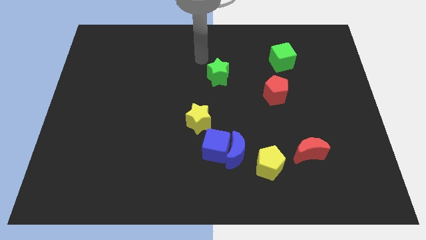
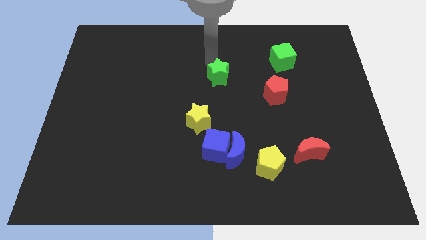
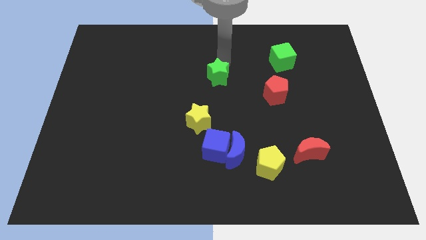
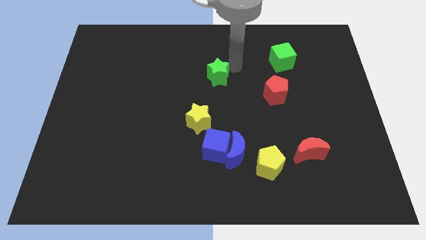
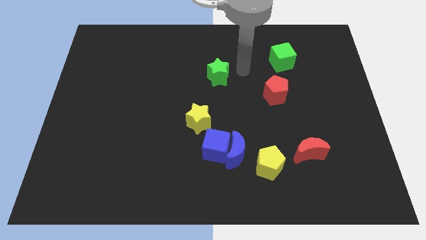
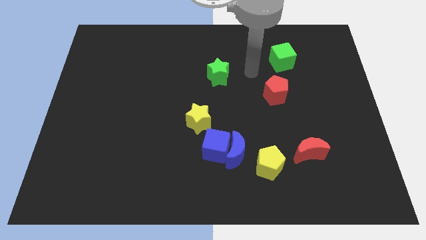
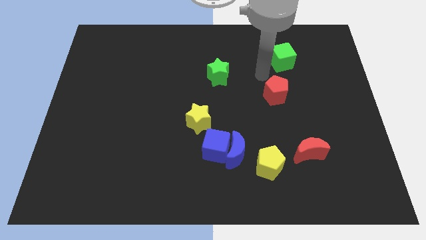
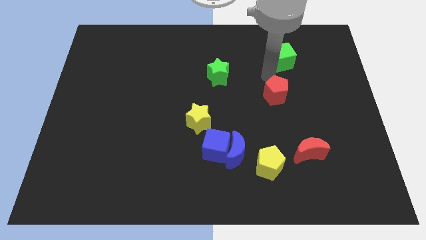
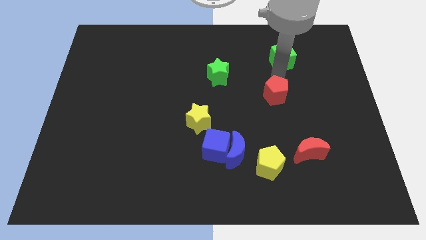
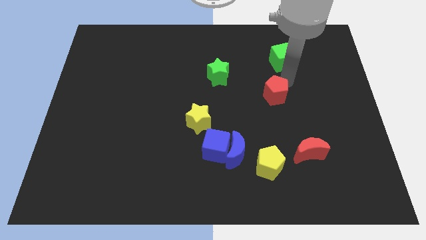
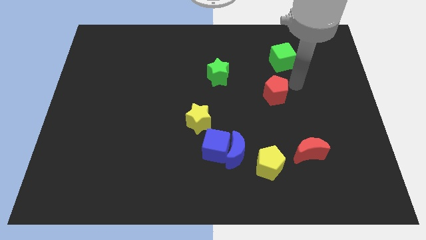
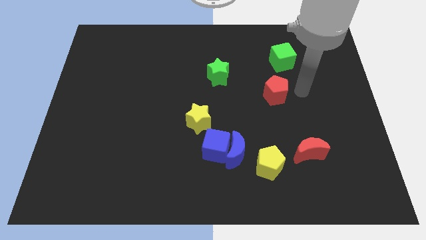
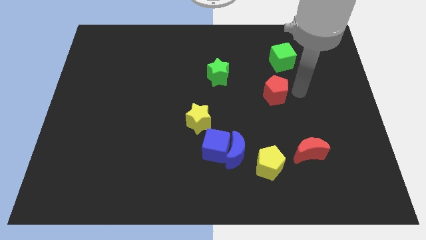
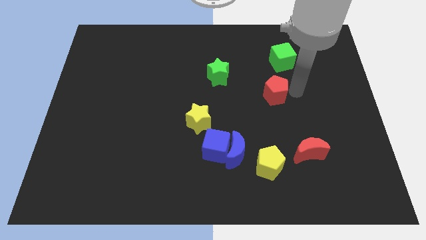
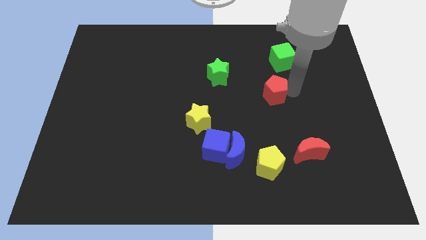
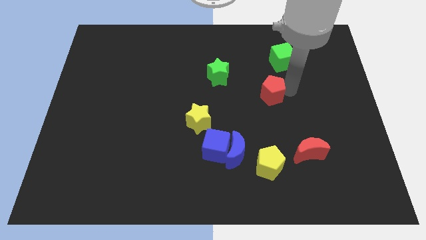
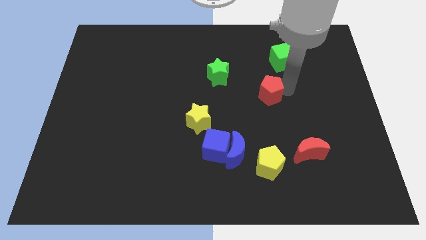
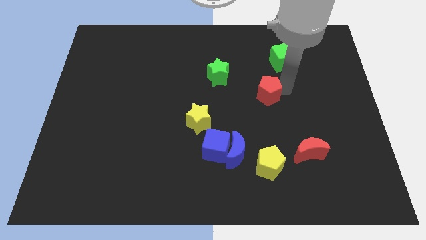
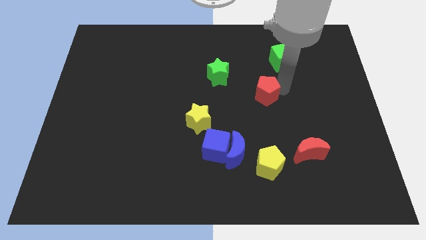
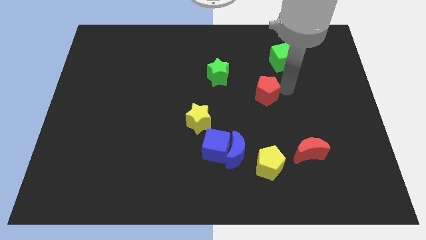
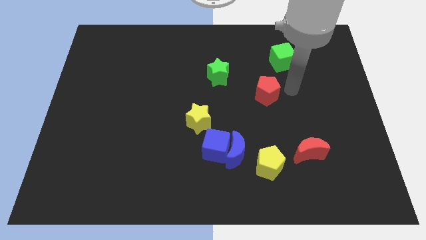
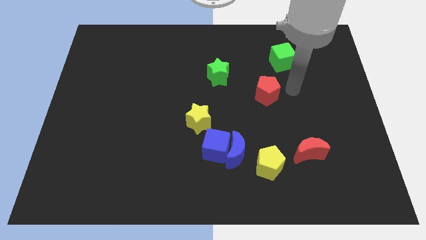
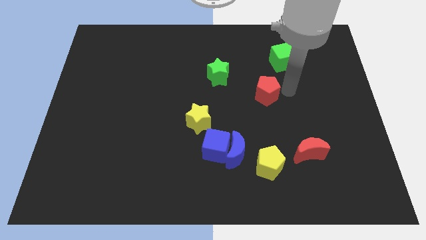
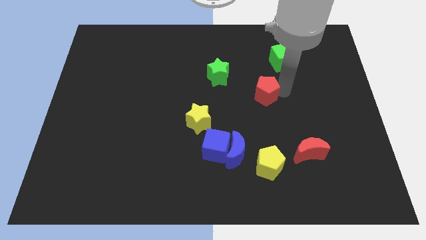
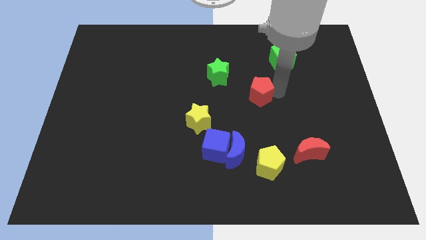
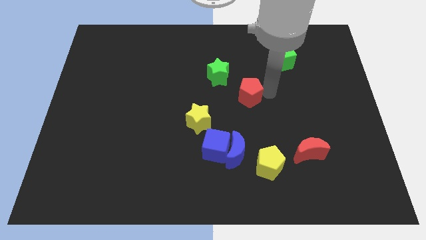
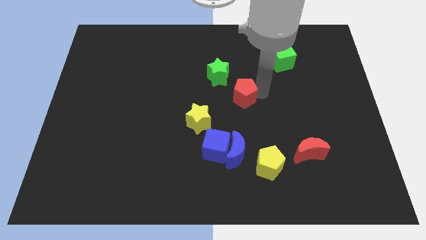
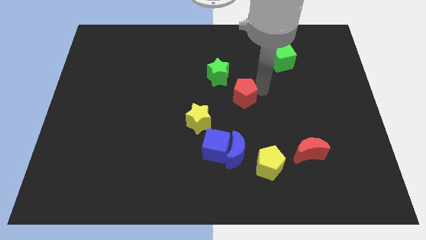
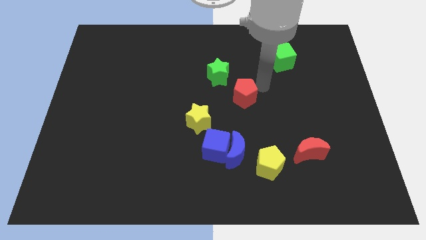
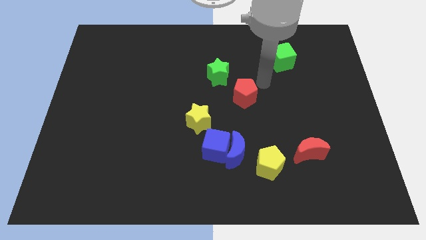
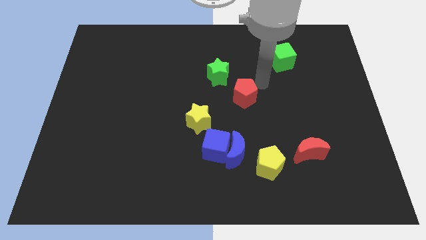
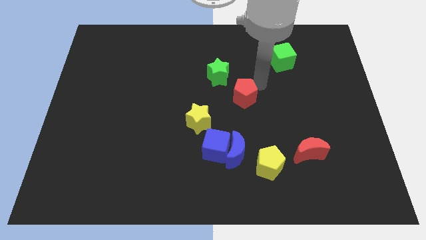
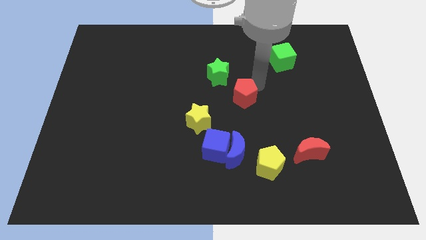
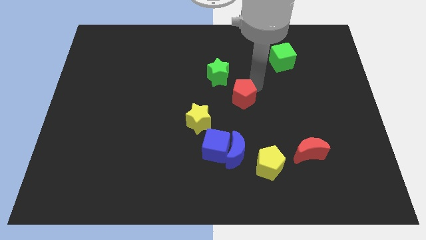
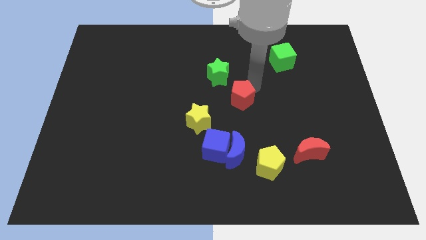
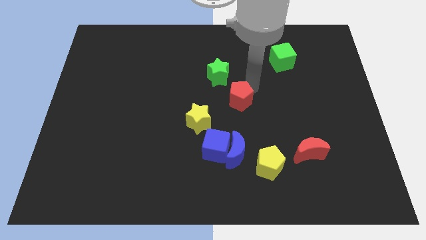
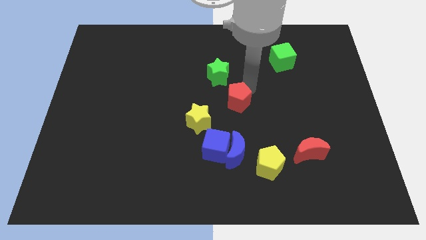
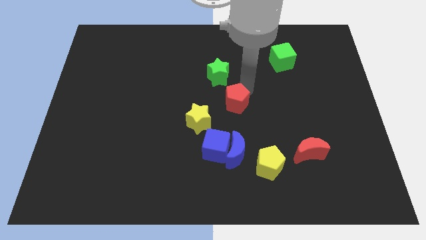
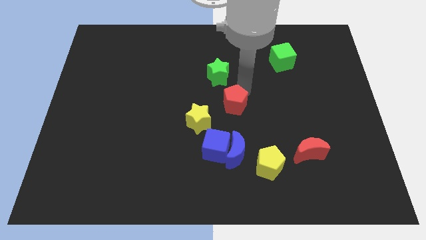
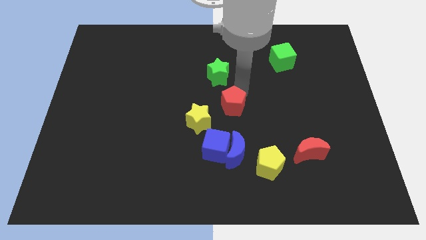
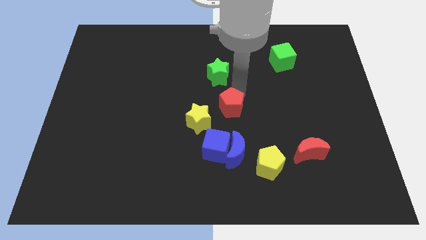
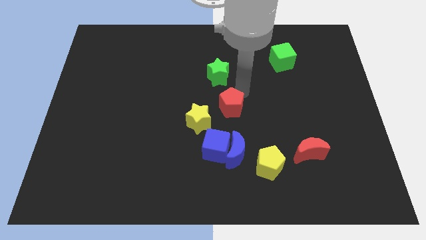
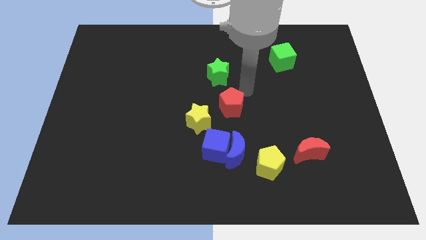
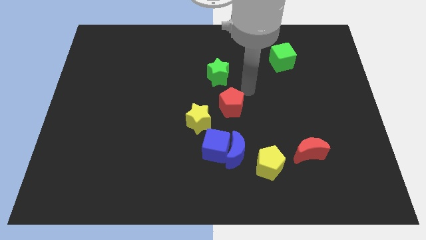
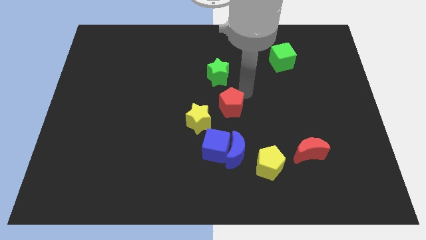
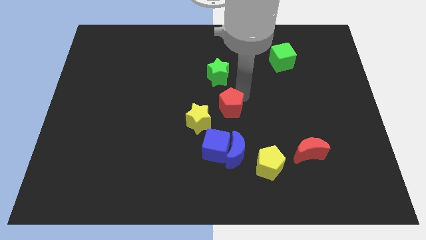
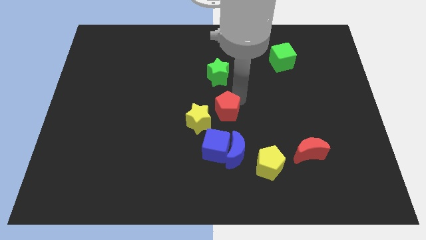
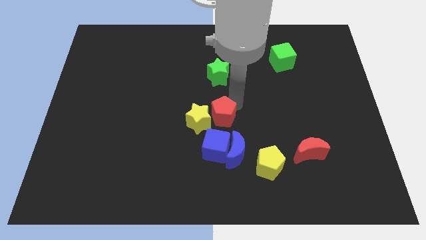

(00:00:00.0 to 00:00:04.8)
put the red pentagon towards the yellow star

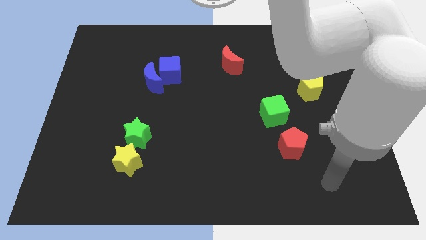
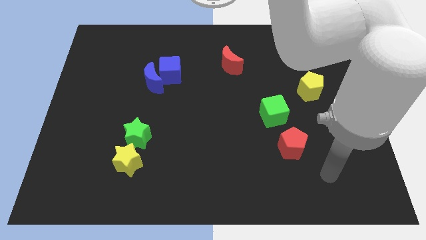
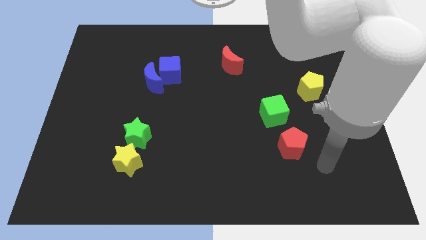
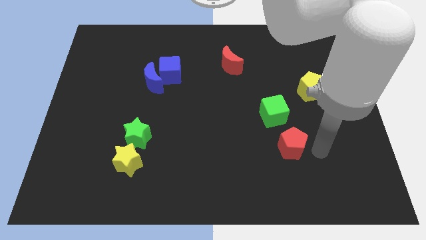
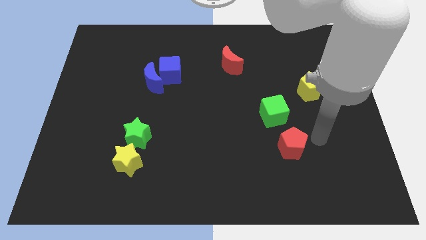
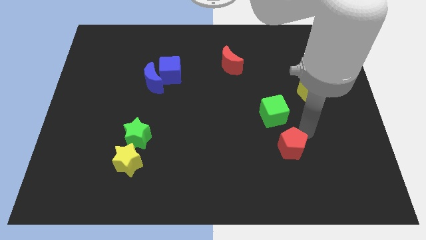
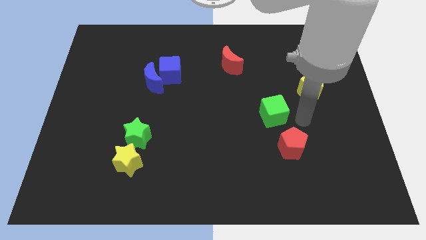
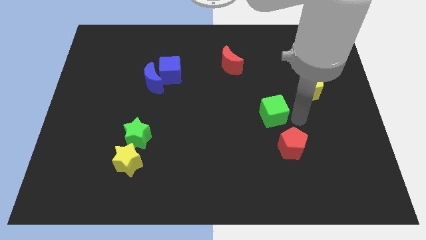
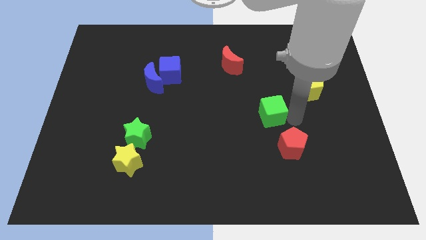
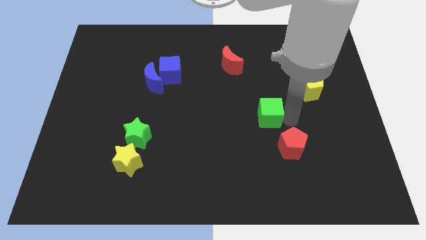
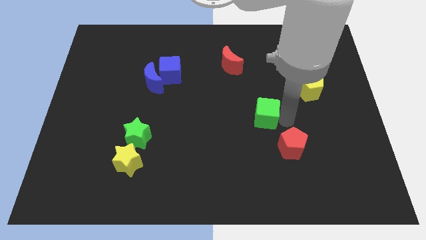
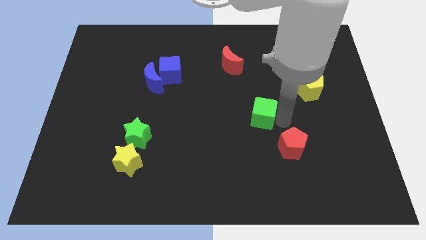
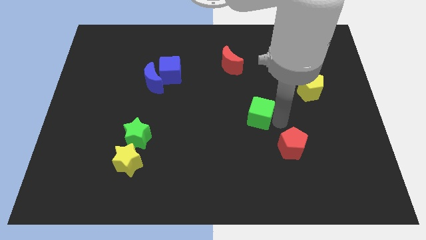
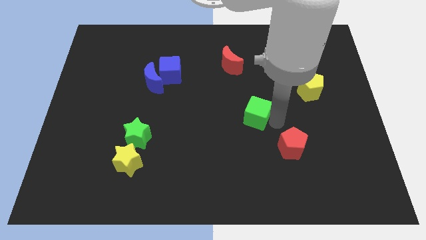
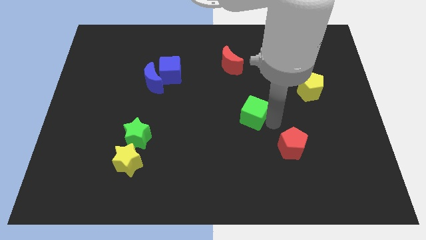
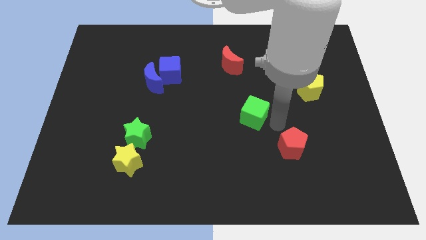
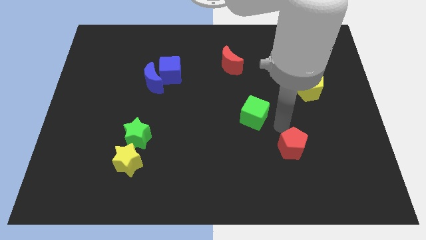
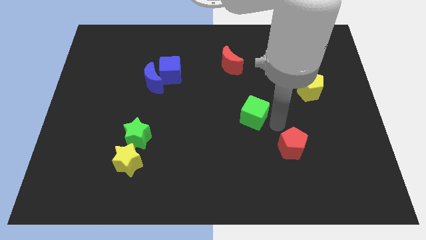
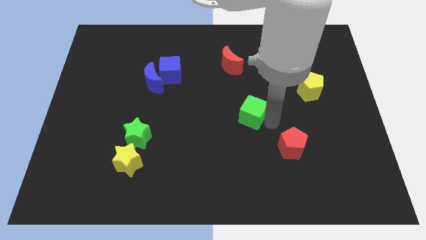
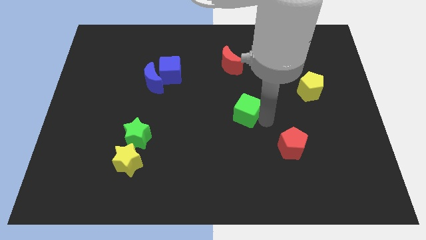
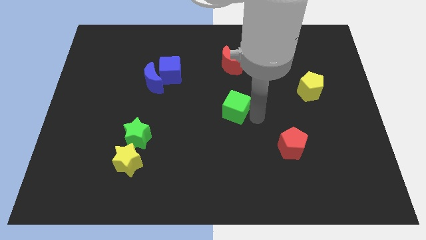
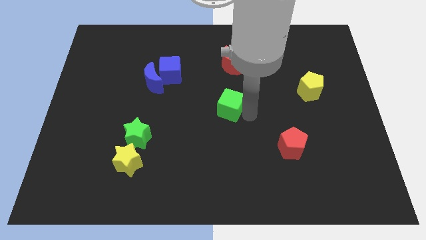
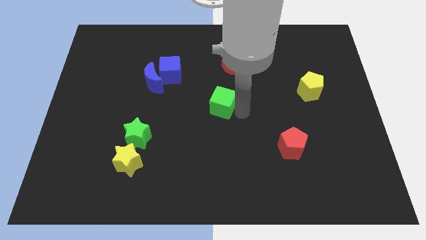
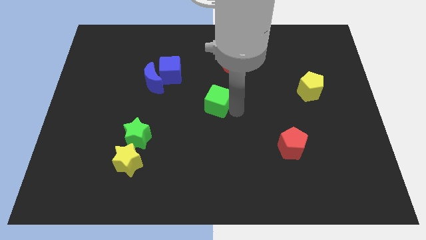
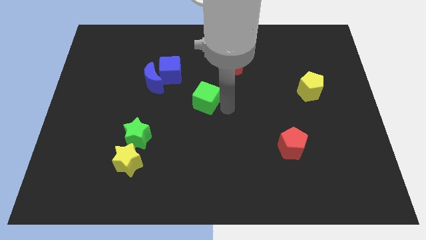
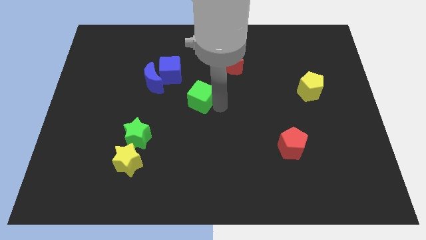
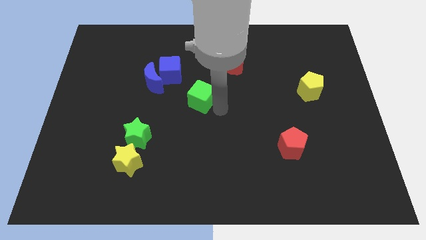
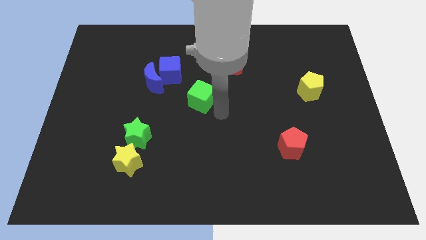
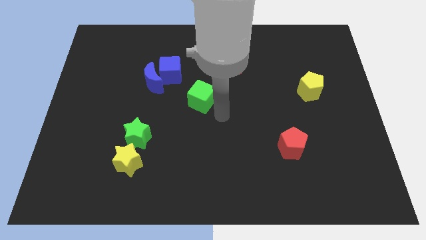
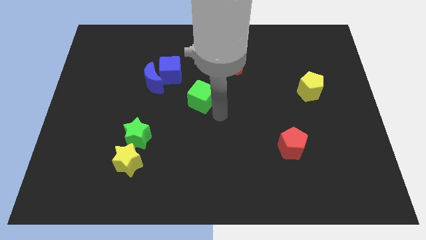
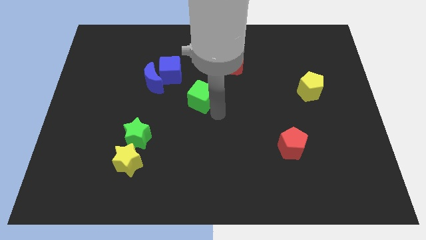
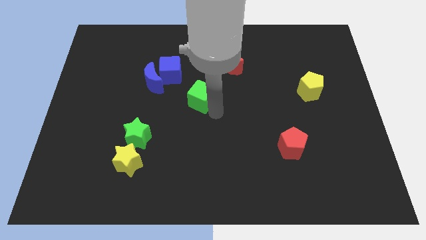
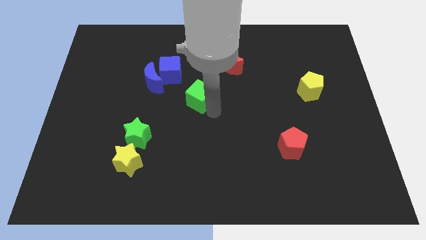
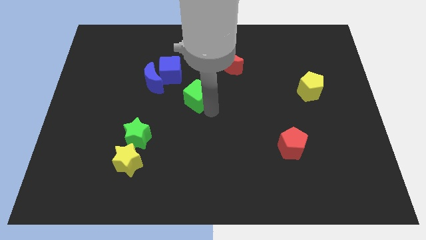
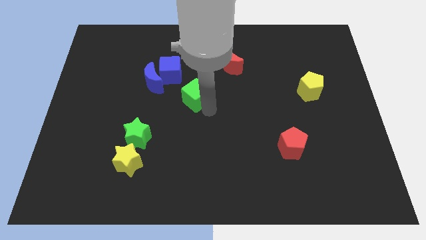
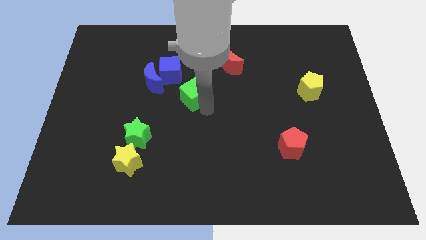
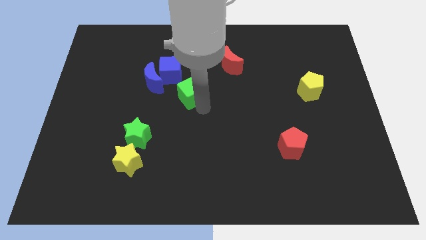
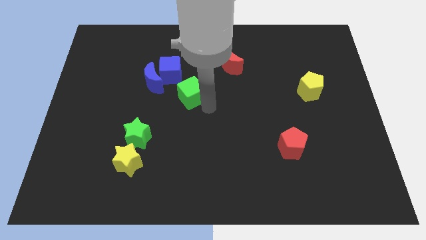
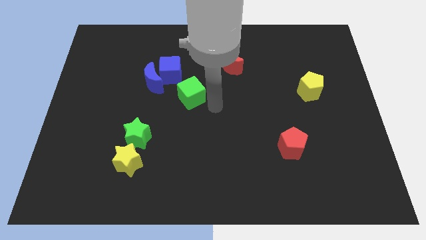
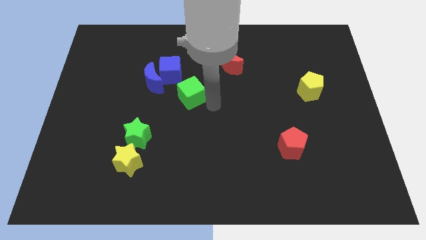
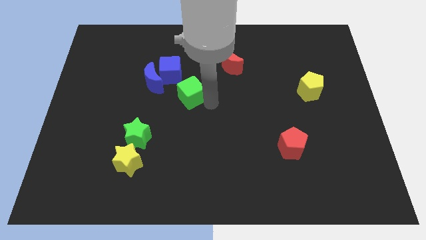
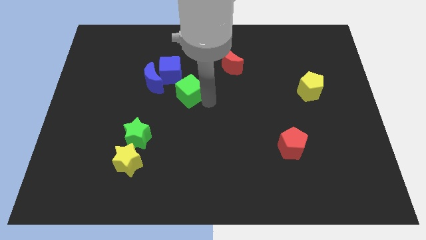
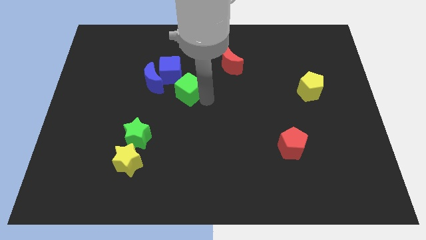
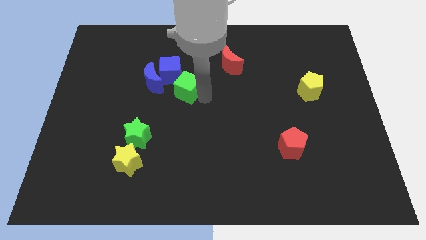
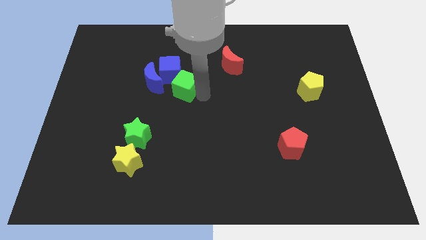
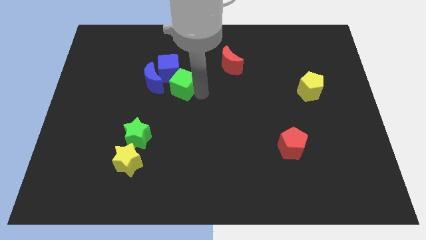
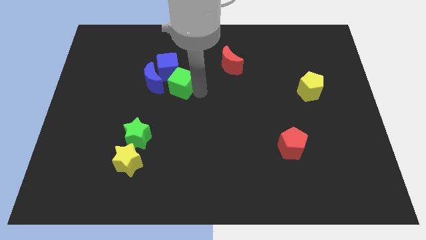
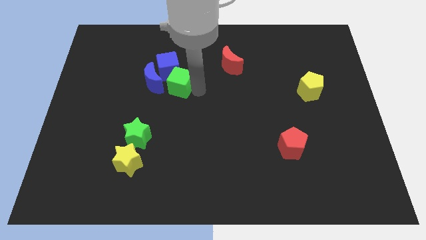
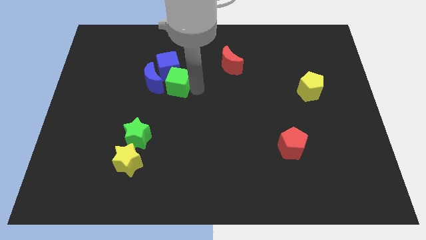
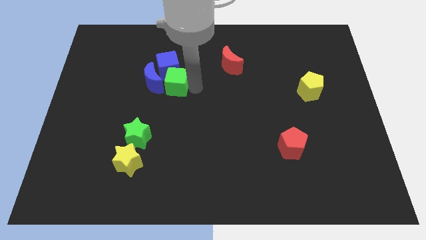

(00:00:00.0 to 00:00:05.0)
move the green cube next to the blue moon
